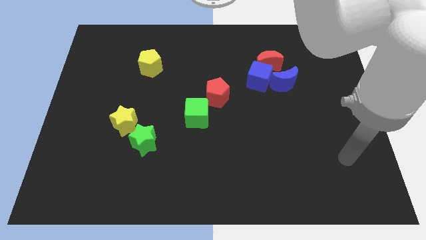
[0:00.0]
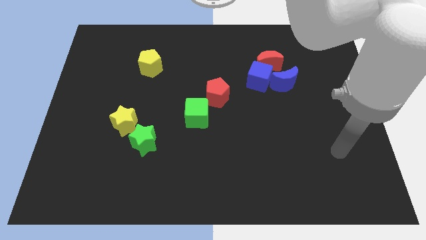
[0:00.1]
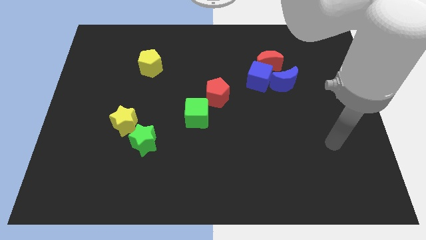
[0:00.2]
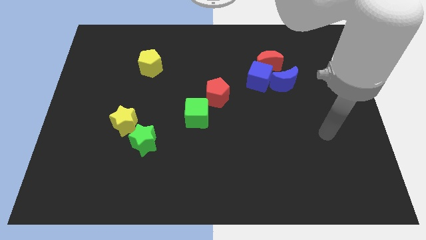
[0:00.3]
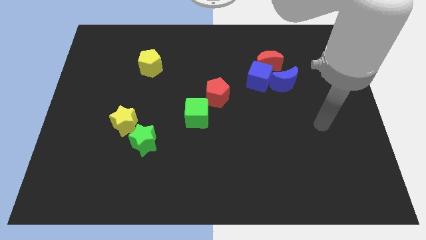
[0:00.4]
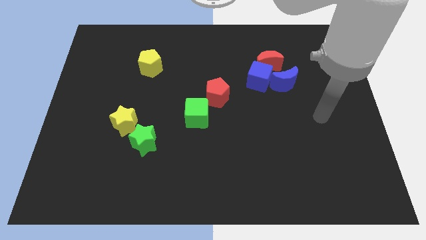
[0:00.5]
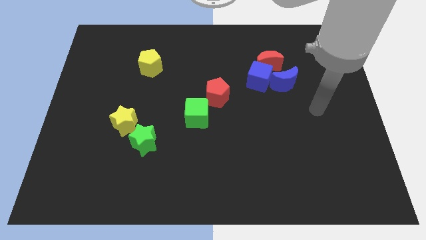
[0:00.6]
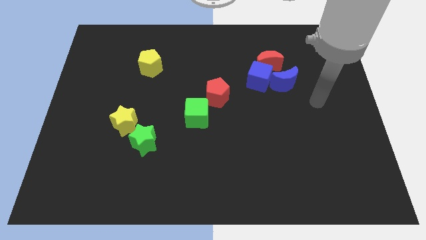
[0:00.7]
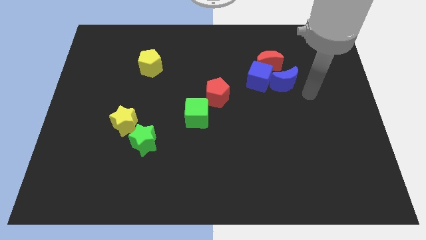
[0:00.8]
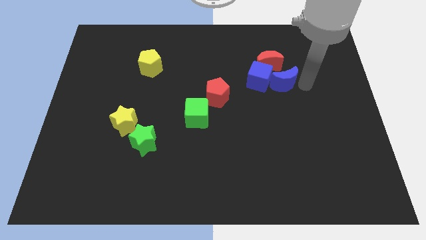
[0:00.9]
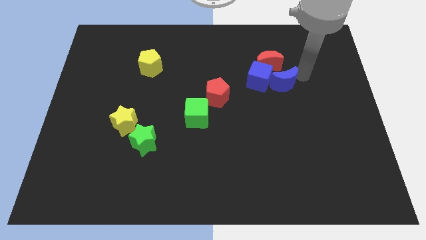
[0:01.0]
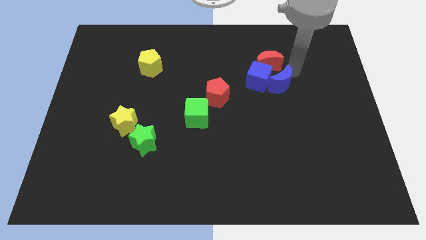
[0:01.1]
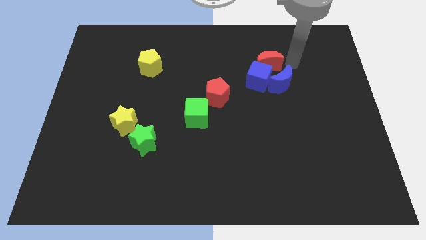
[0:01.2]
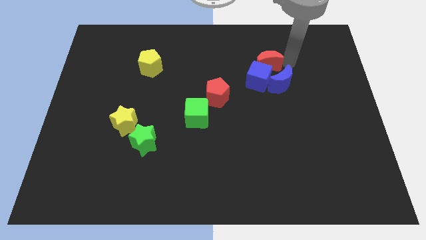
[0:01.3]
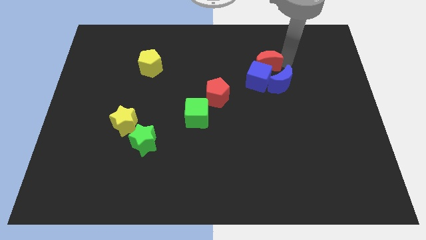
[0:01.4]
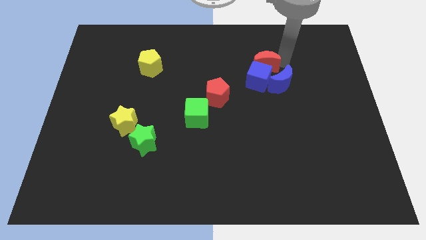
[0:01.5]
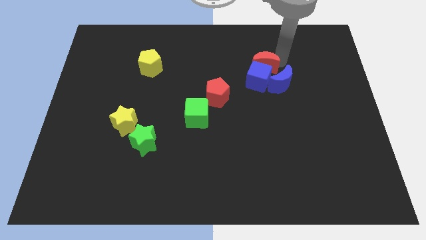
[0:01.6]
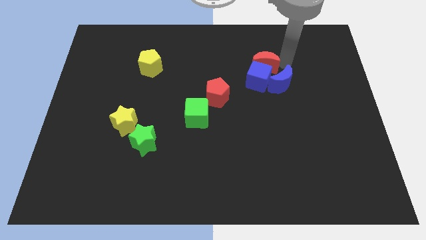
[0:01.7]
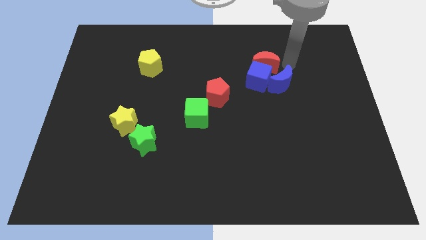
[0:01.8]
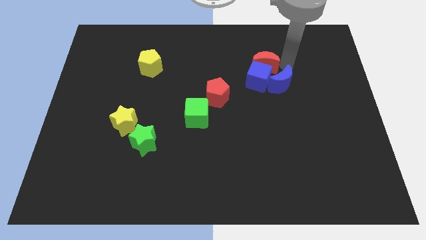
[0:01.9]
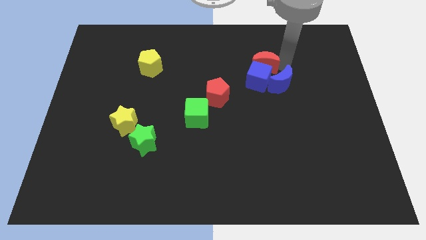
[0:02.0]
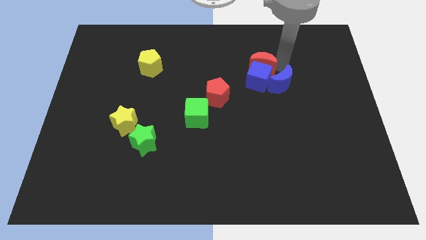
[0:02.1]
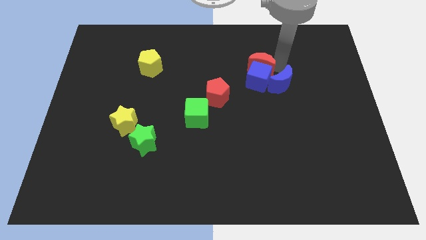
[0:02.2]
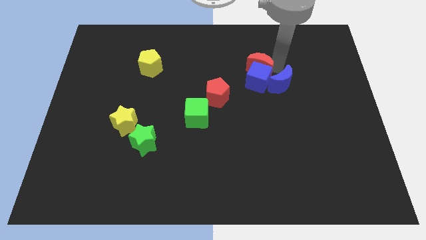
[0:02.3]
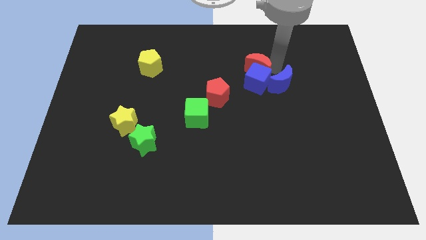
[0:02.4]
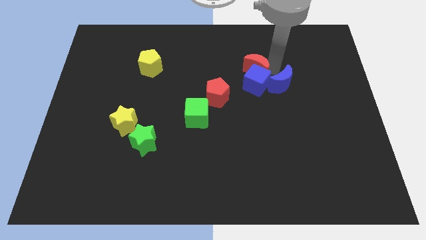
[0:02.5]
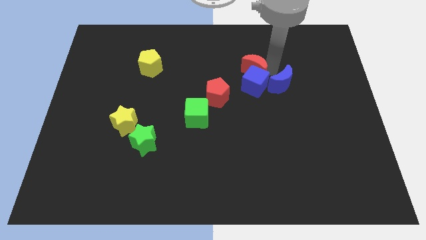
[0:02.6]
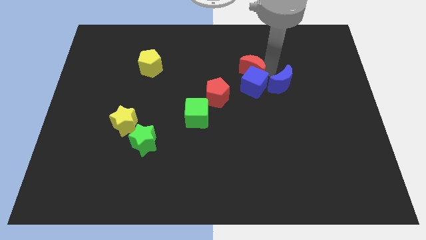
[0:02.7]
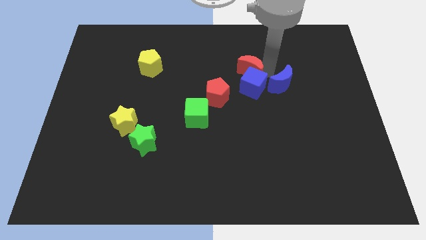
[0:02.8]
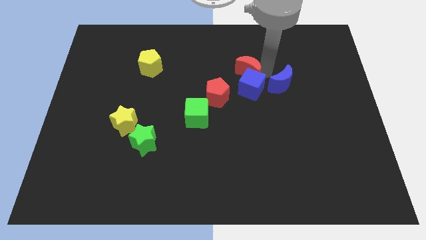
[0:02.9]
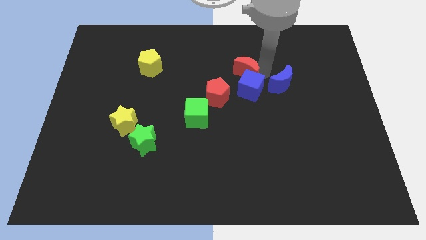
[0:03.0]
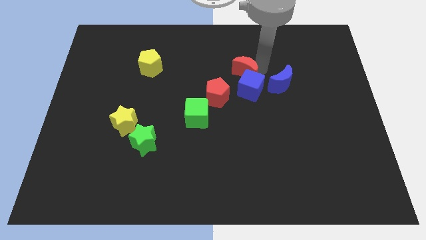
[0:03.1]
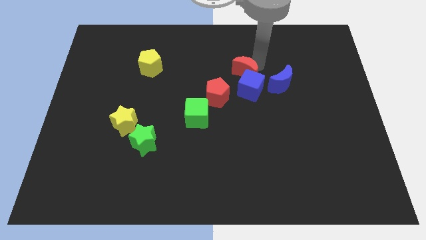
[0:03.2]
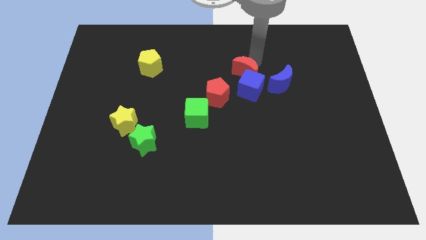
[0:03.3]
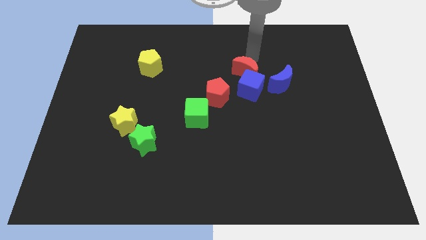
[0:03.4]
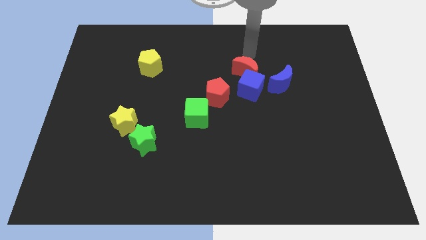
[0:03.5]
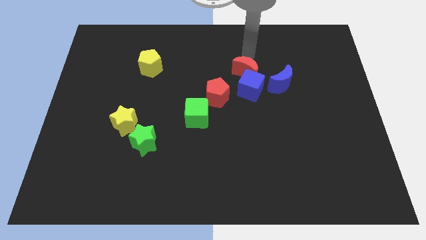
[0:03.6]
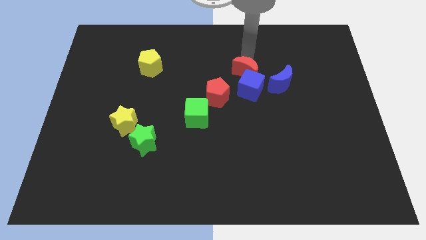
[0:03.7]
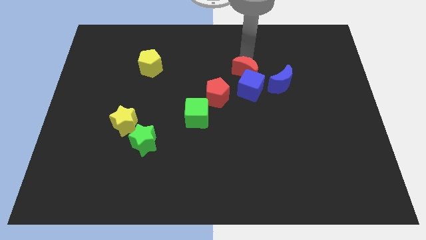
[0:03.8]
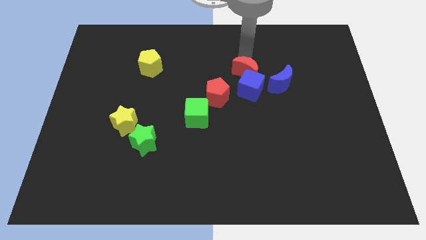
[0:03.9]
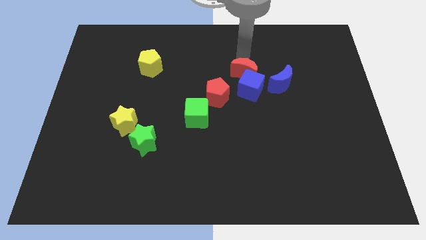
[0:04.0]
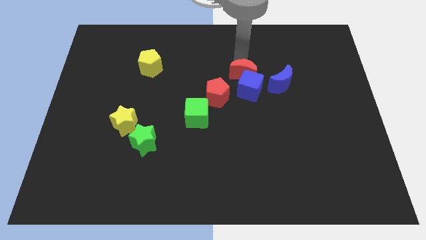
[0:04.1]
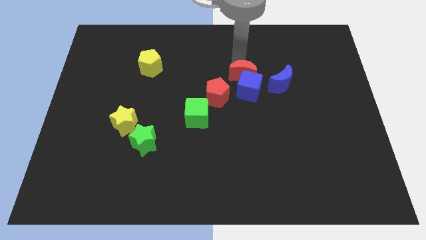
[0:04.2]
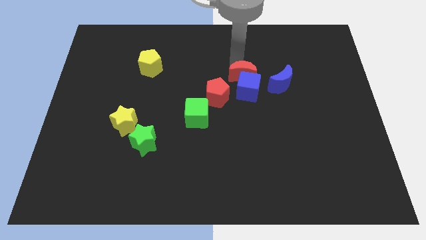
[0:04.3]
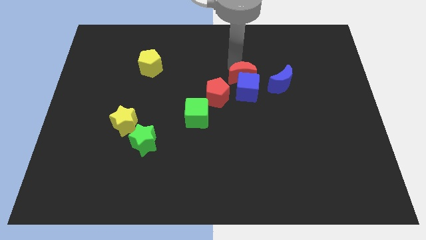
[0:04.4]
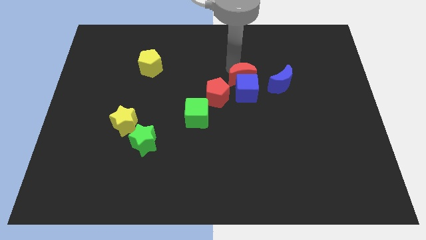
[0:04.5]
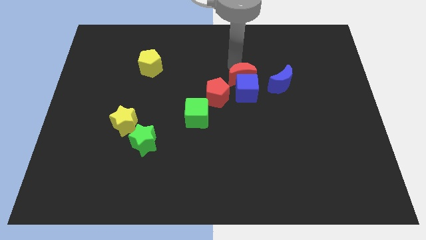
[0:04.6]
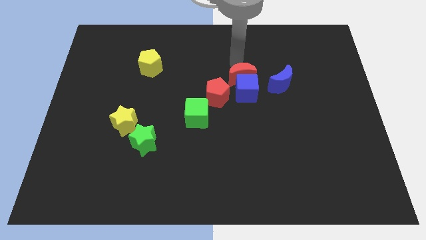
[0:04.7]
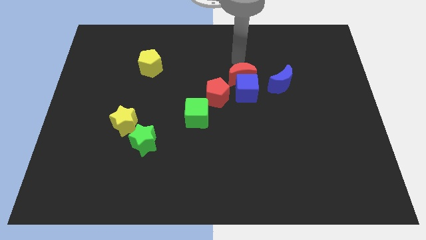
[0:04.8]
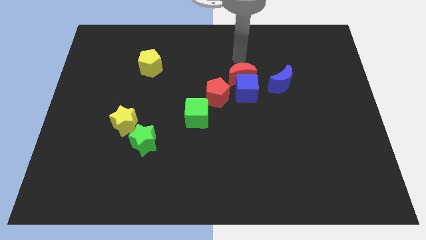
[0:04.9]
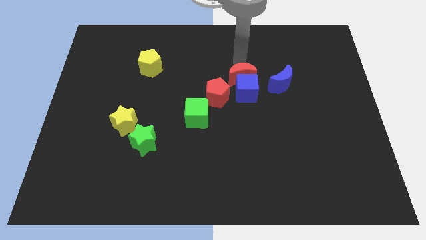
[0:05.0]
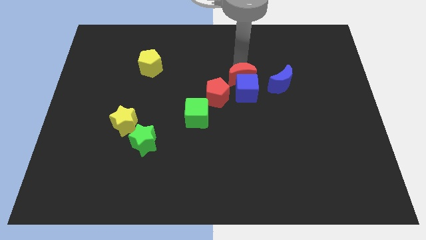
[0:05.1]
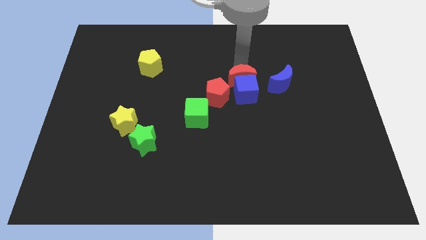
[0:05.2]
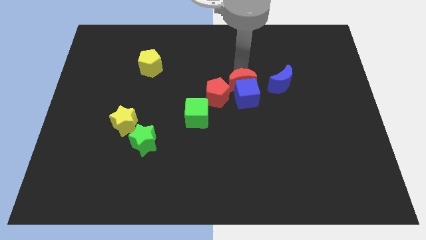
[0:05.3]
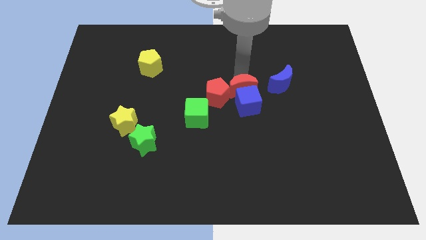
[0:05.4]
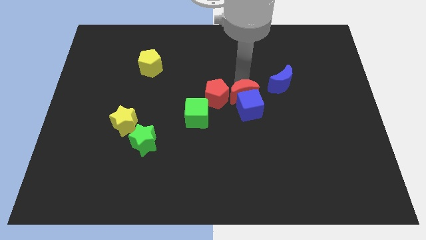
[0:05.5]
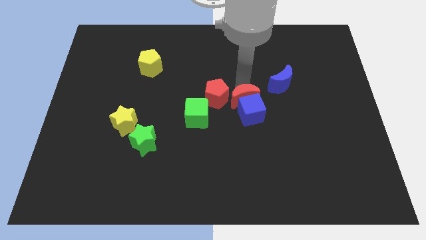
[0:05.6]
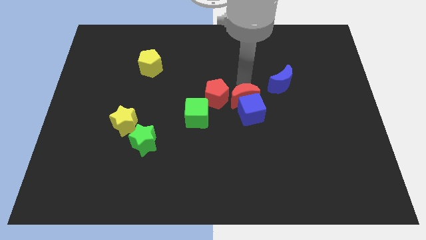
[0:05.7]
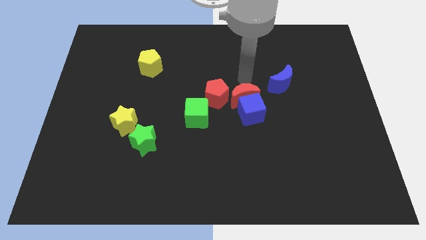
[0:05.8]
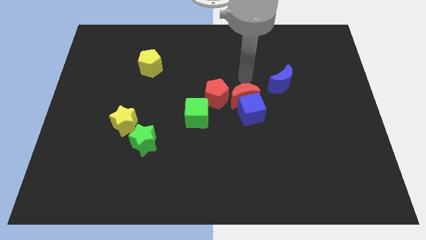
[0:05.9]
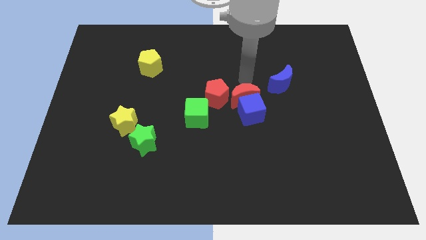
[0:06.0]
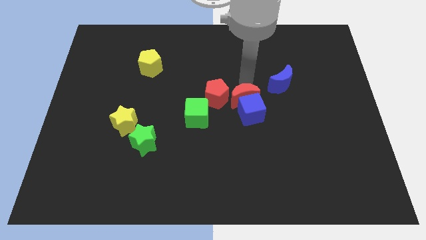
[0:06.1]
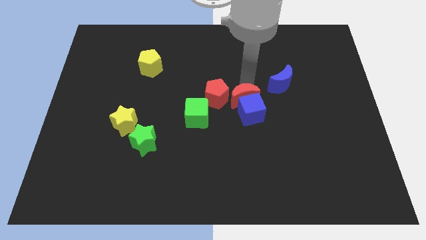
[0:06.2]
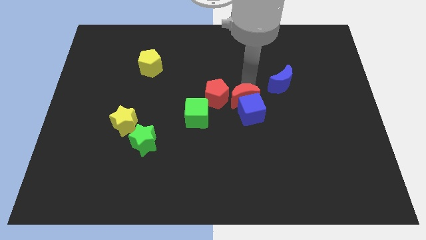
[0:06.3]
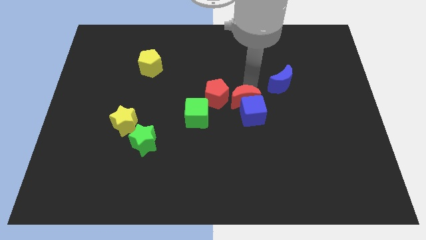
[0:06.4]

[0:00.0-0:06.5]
put the red moon just right of the green cube

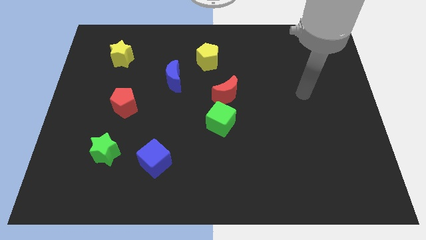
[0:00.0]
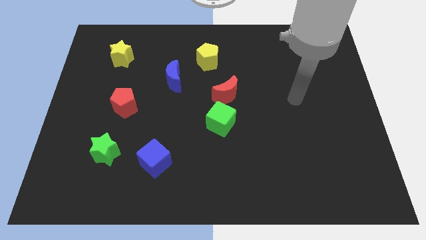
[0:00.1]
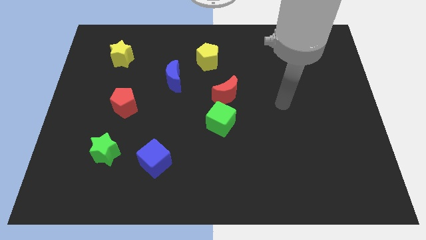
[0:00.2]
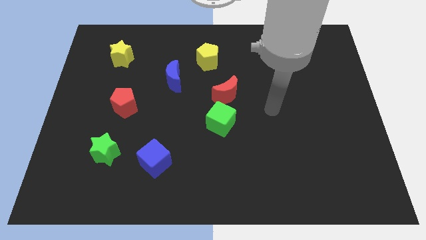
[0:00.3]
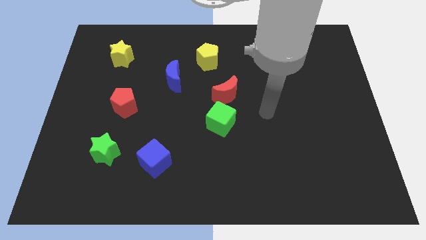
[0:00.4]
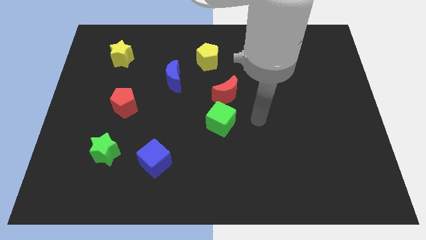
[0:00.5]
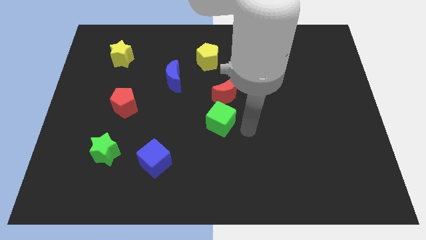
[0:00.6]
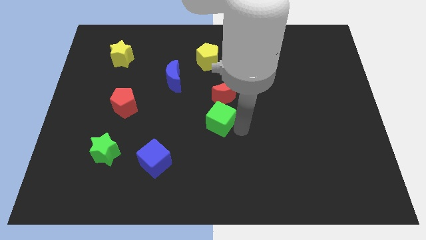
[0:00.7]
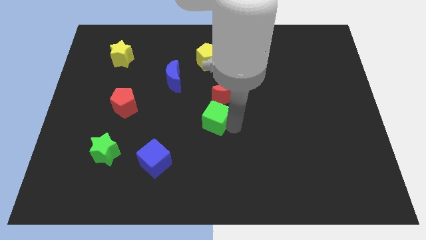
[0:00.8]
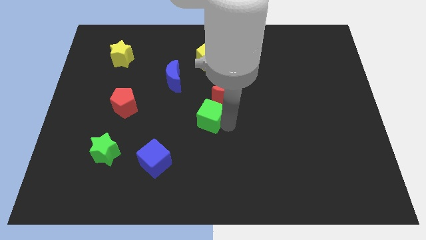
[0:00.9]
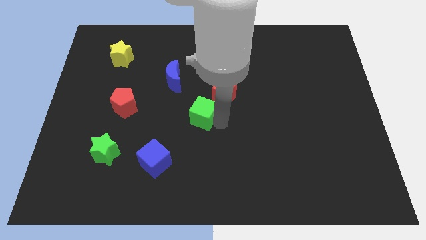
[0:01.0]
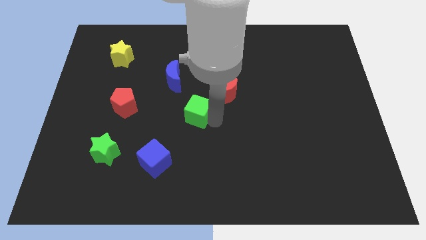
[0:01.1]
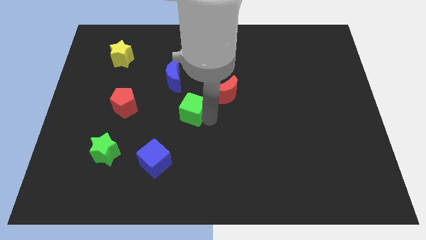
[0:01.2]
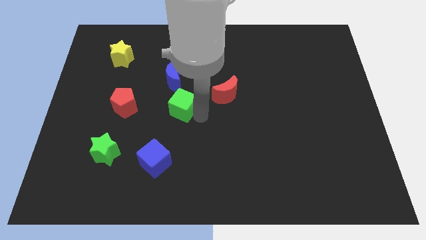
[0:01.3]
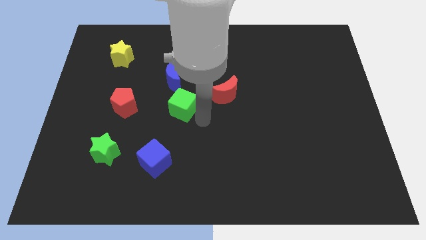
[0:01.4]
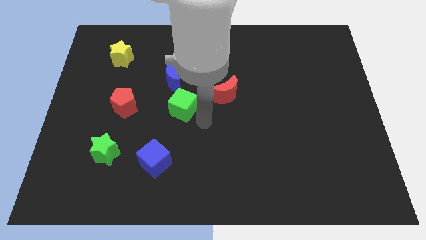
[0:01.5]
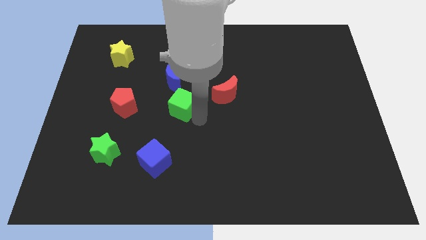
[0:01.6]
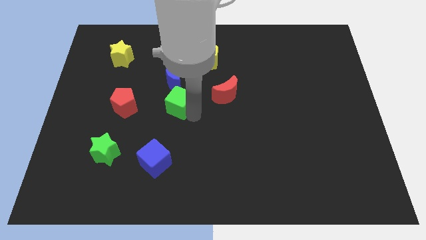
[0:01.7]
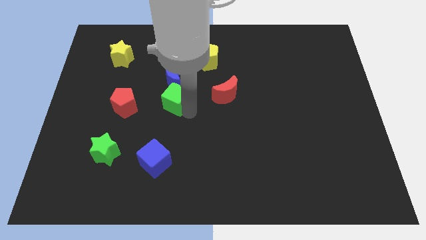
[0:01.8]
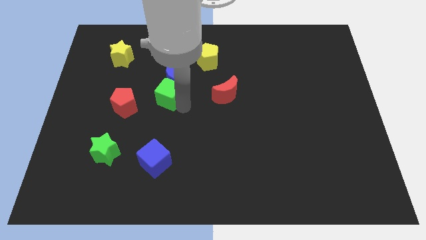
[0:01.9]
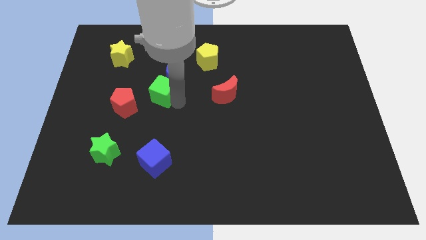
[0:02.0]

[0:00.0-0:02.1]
move the green cube to the top right of the red pentagon
